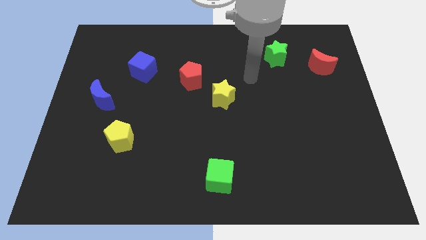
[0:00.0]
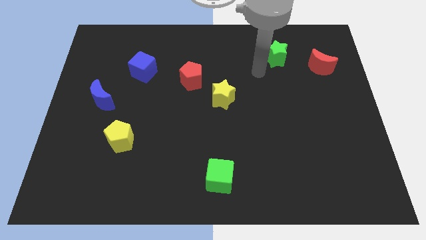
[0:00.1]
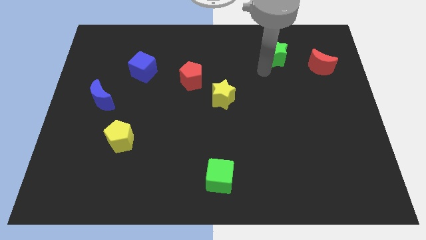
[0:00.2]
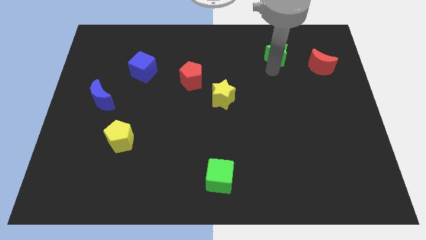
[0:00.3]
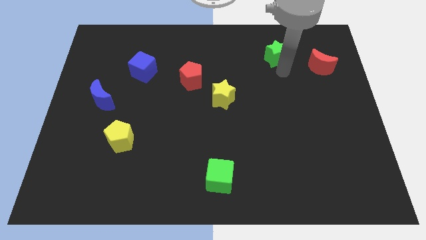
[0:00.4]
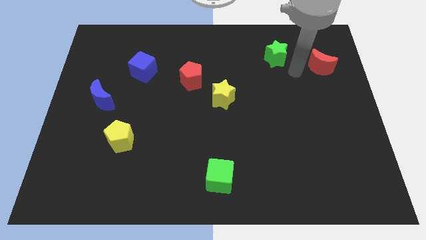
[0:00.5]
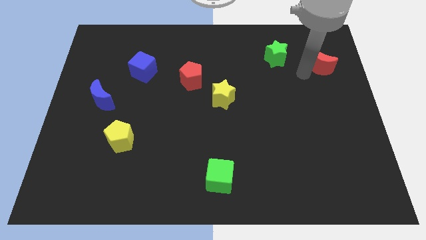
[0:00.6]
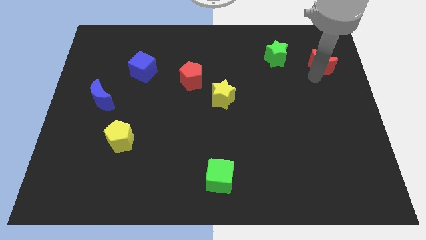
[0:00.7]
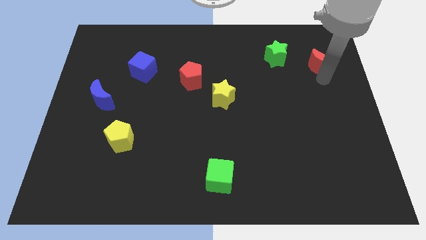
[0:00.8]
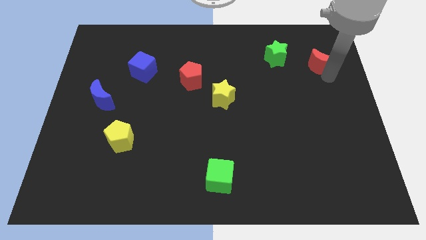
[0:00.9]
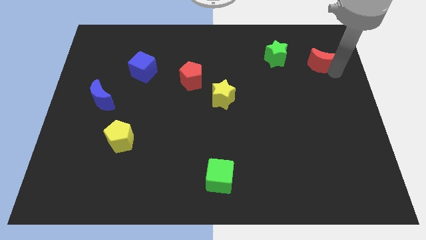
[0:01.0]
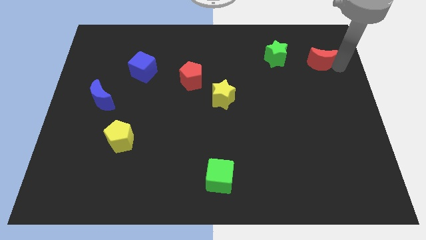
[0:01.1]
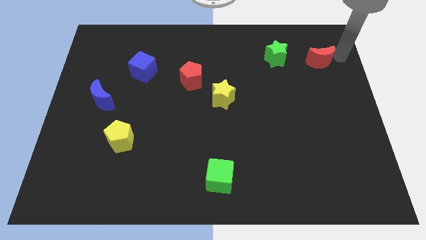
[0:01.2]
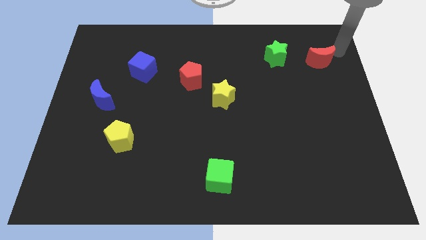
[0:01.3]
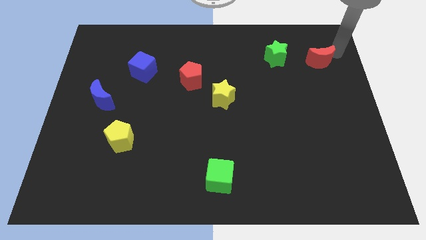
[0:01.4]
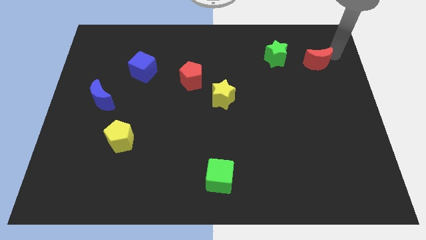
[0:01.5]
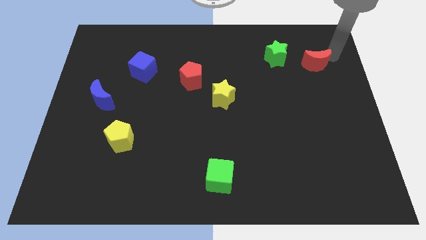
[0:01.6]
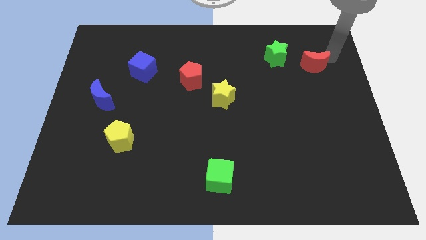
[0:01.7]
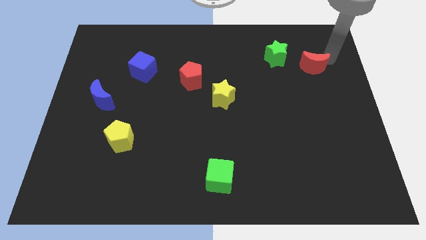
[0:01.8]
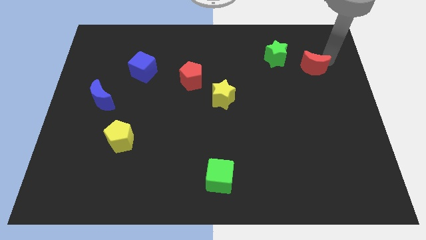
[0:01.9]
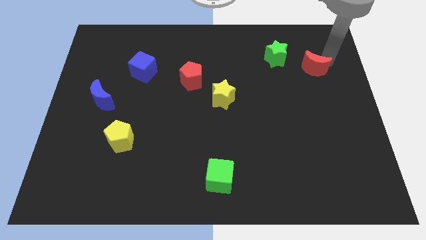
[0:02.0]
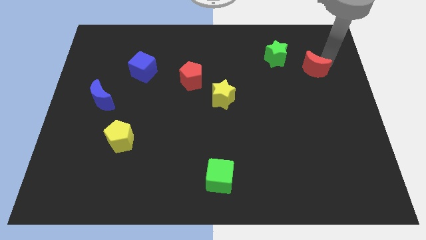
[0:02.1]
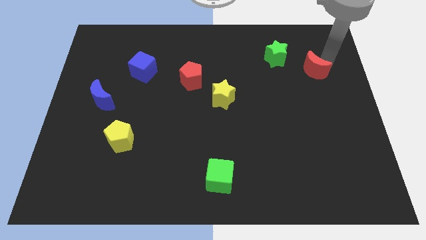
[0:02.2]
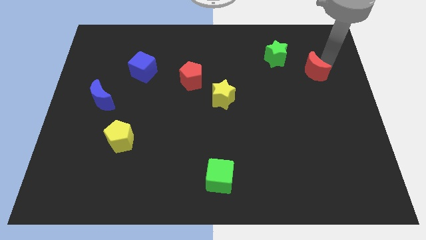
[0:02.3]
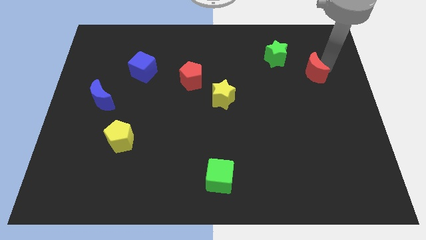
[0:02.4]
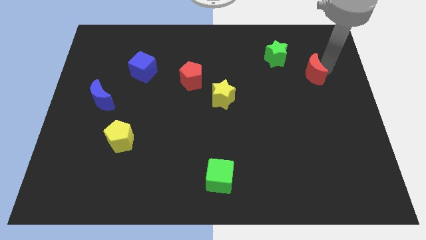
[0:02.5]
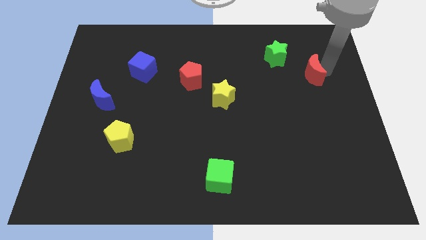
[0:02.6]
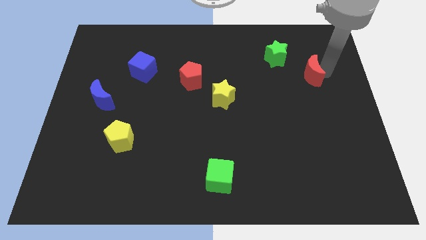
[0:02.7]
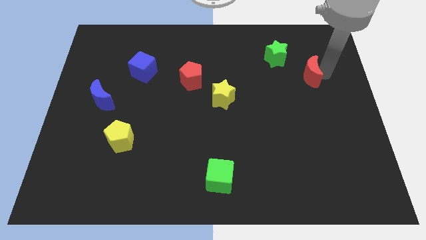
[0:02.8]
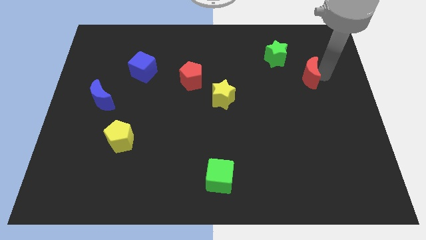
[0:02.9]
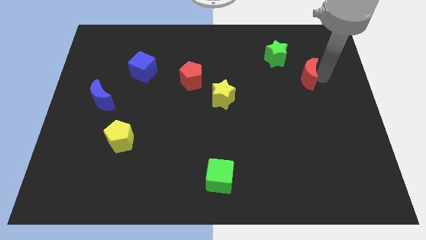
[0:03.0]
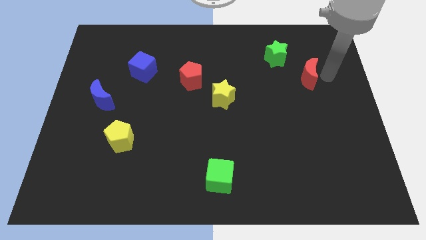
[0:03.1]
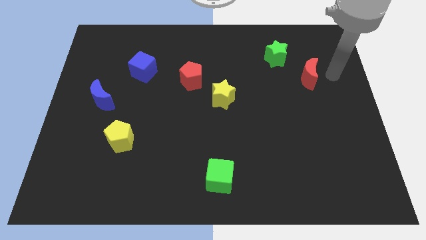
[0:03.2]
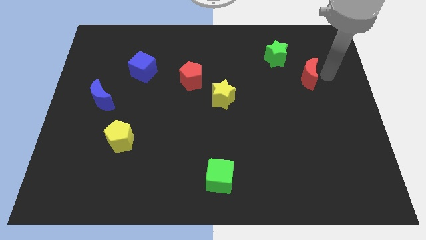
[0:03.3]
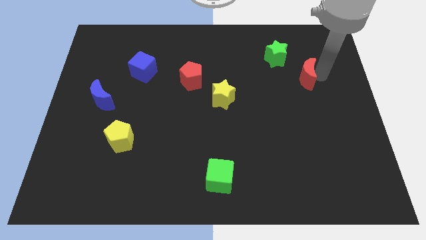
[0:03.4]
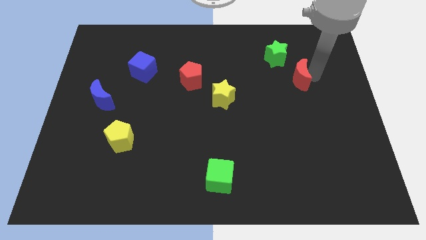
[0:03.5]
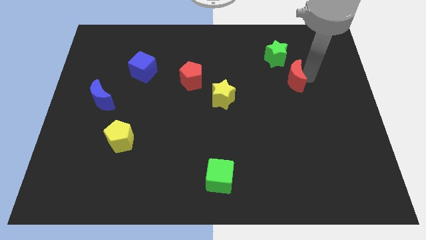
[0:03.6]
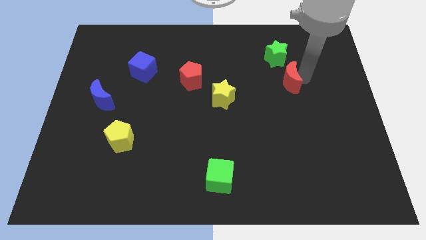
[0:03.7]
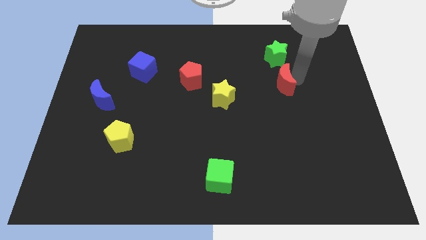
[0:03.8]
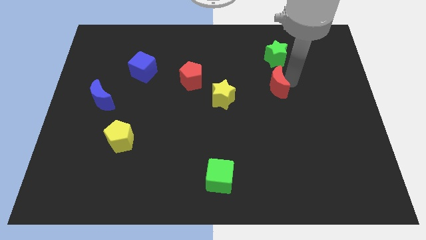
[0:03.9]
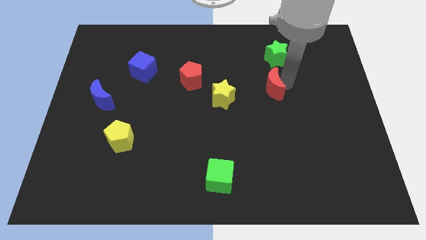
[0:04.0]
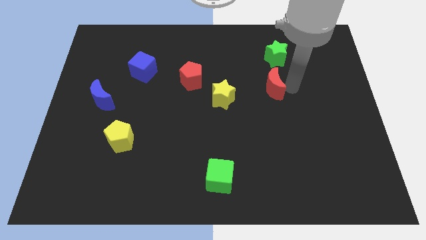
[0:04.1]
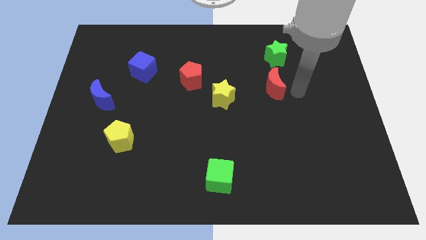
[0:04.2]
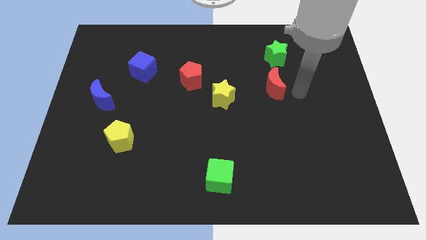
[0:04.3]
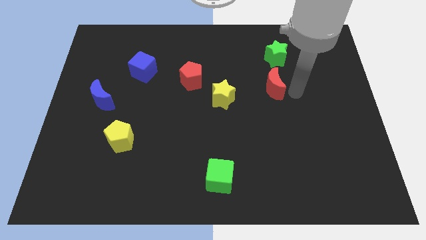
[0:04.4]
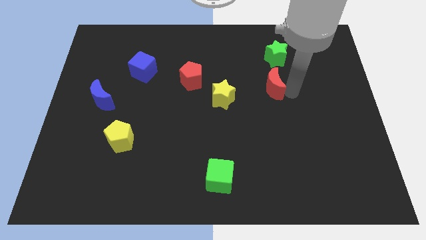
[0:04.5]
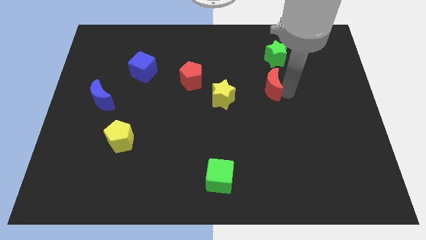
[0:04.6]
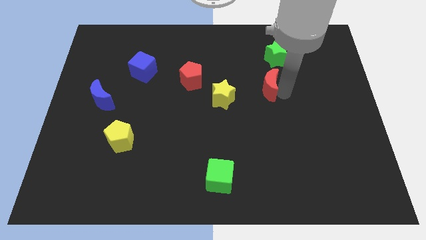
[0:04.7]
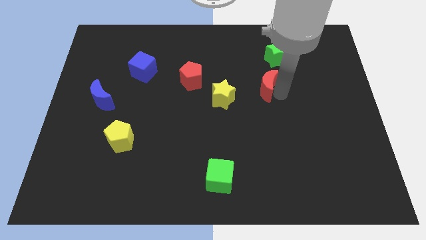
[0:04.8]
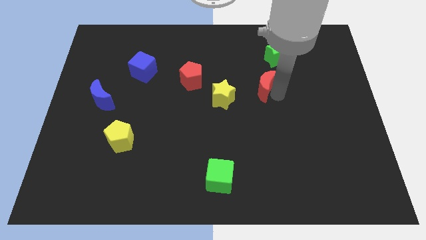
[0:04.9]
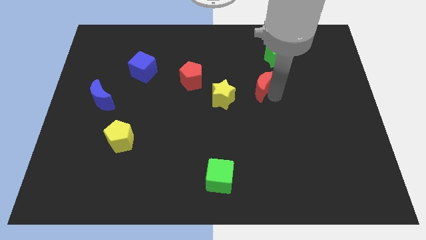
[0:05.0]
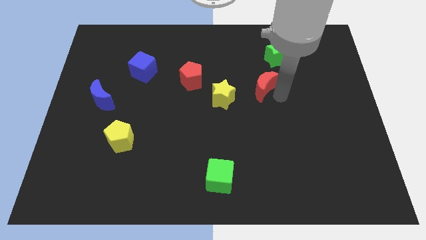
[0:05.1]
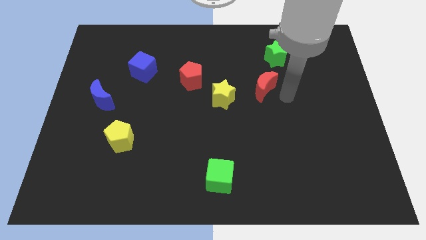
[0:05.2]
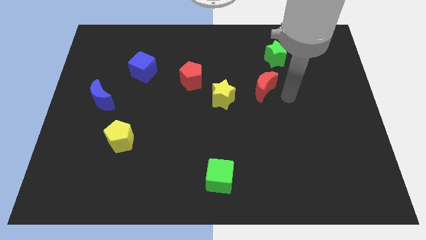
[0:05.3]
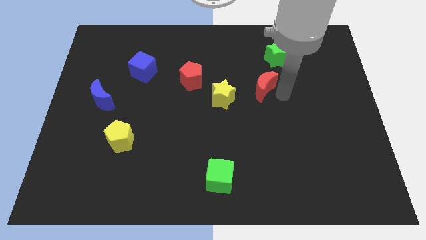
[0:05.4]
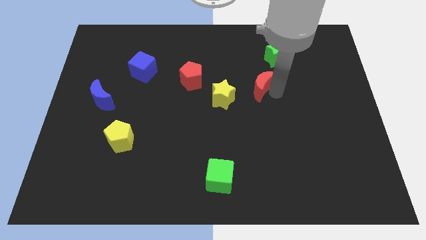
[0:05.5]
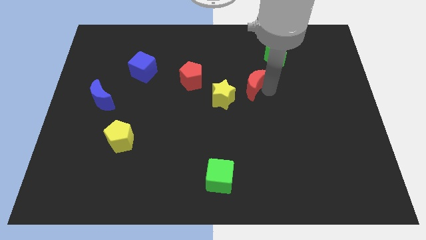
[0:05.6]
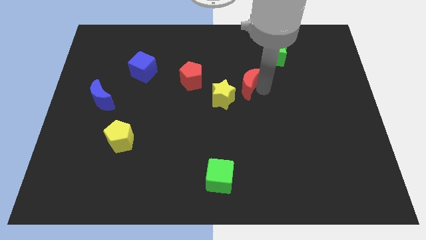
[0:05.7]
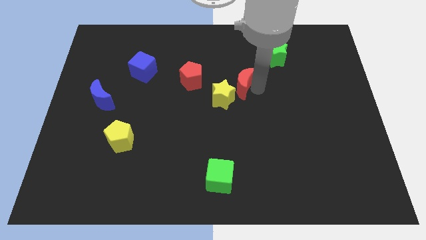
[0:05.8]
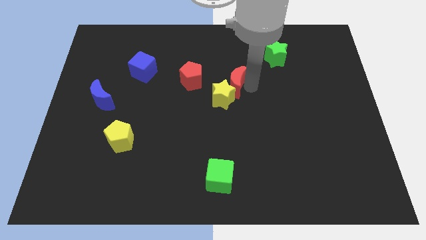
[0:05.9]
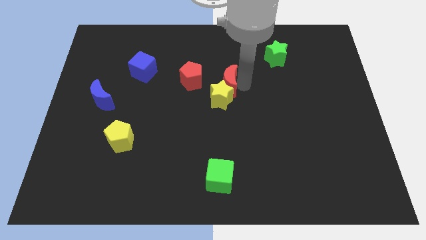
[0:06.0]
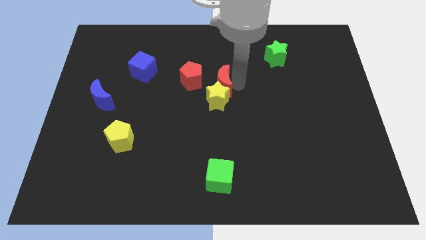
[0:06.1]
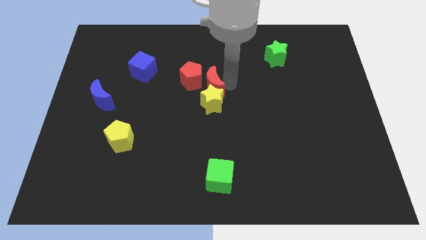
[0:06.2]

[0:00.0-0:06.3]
put the red moon close to the red pentagon

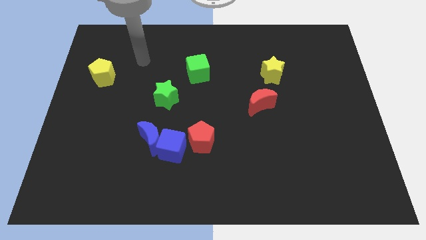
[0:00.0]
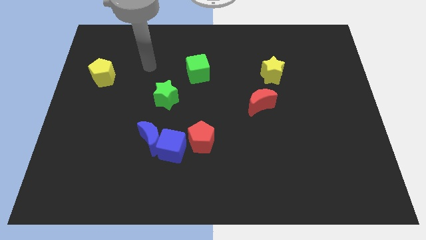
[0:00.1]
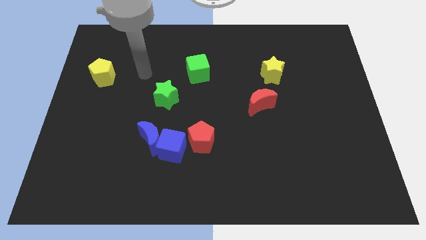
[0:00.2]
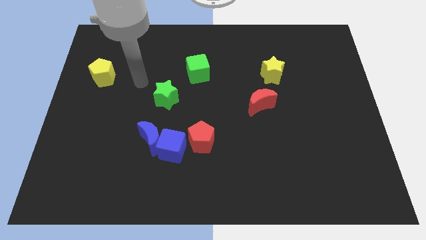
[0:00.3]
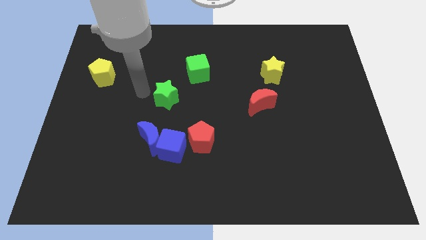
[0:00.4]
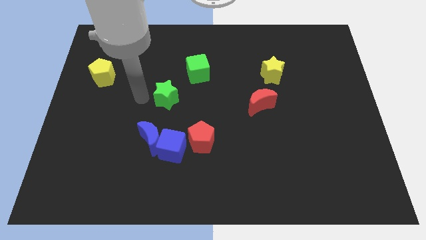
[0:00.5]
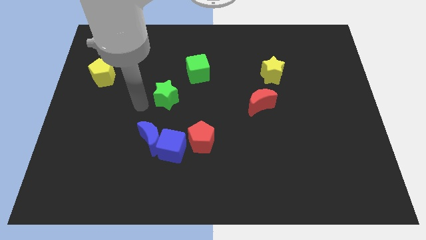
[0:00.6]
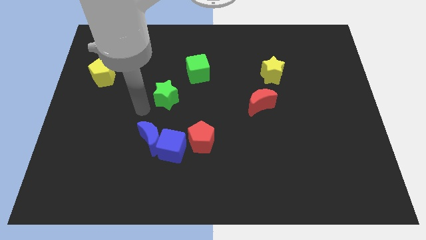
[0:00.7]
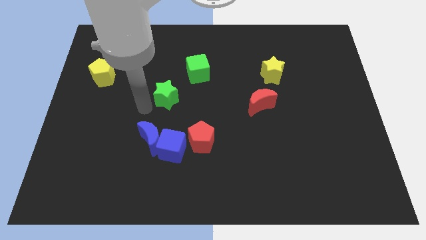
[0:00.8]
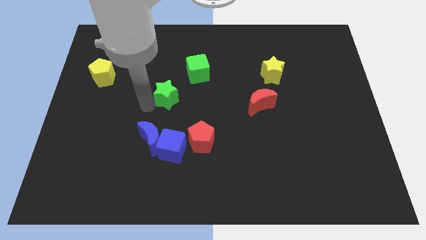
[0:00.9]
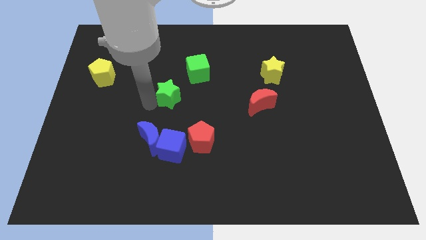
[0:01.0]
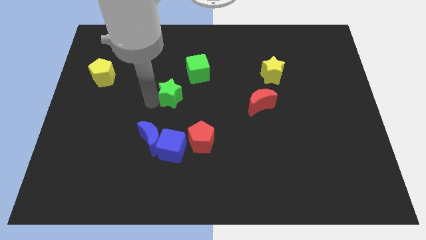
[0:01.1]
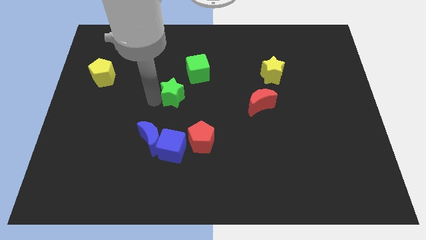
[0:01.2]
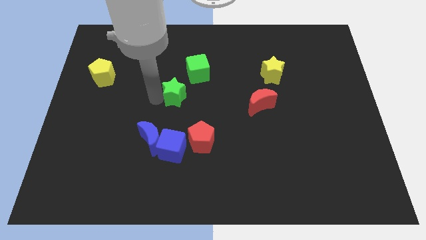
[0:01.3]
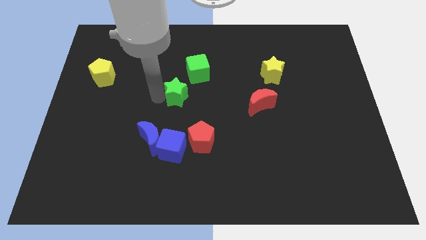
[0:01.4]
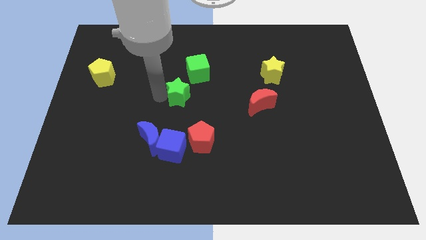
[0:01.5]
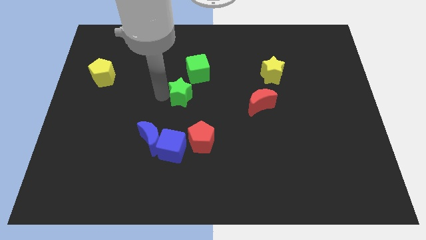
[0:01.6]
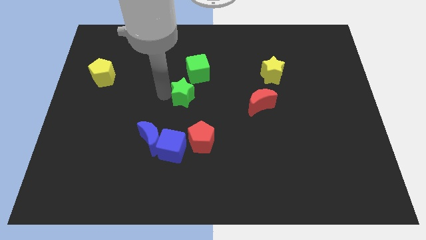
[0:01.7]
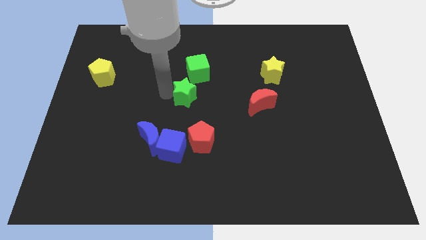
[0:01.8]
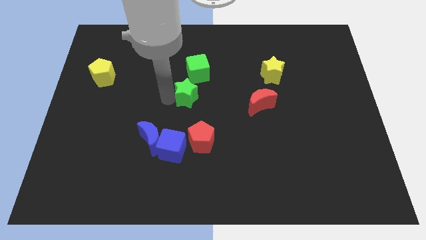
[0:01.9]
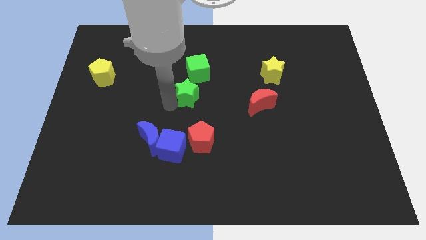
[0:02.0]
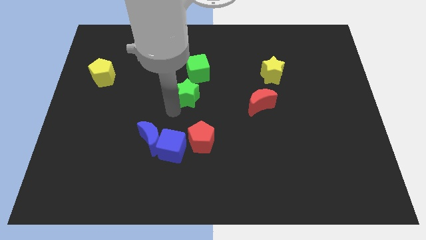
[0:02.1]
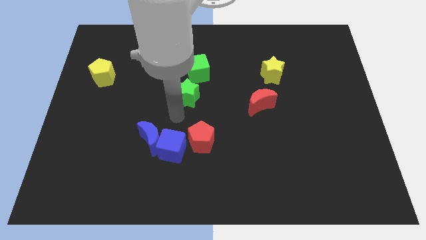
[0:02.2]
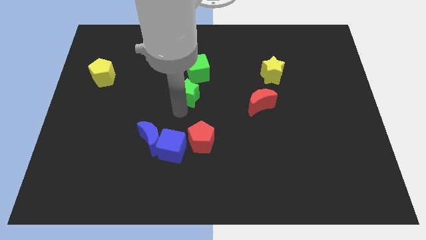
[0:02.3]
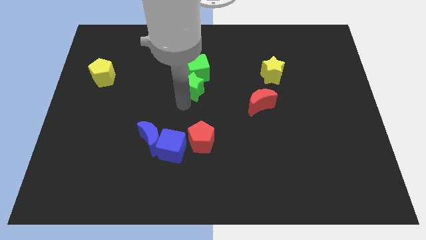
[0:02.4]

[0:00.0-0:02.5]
put the green star towards the green cube
